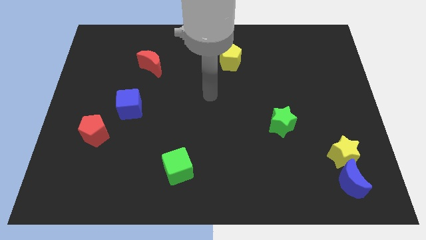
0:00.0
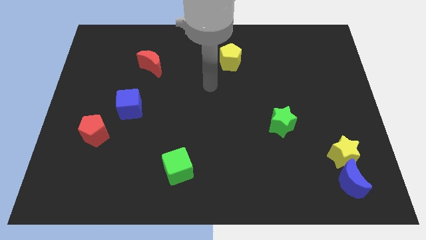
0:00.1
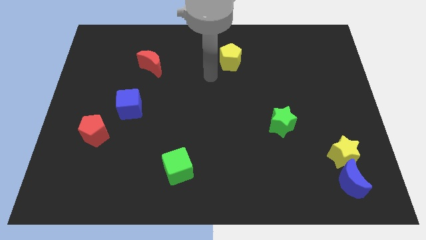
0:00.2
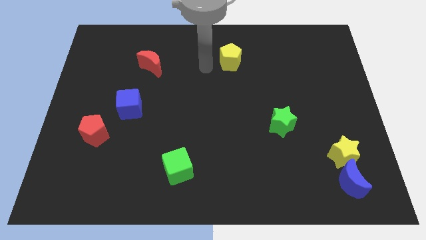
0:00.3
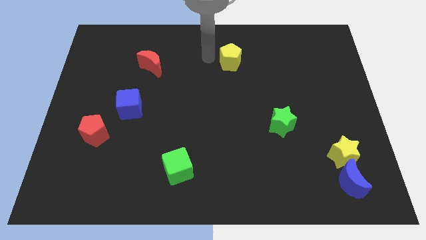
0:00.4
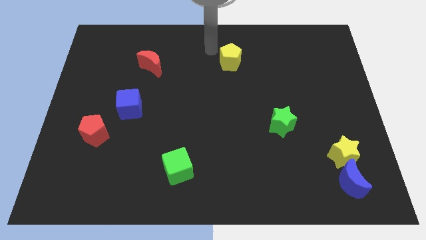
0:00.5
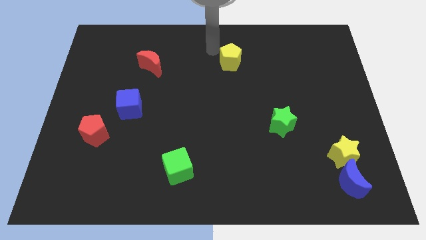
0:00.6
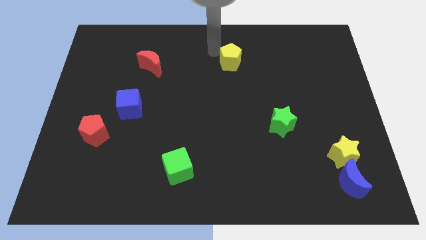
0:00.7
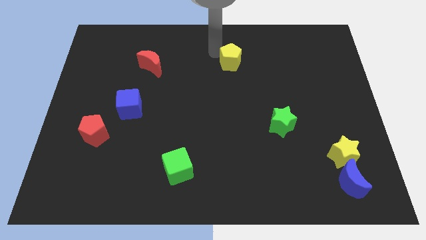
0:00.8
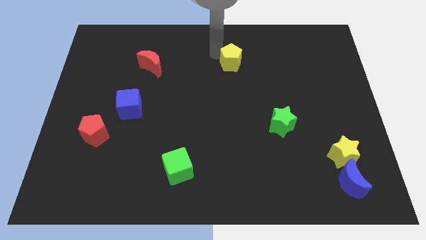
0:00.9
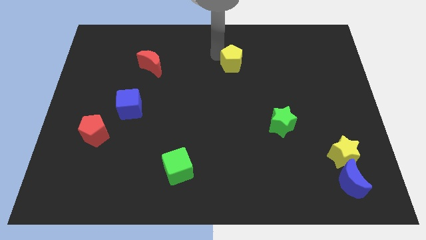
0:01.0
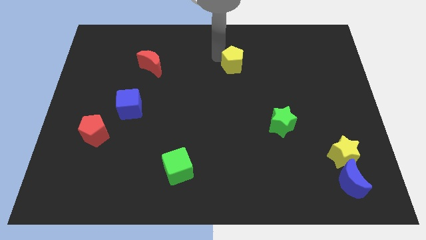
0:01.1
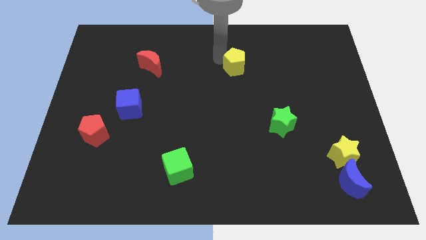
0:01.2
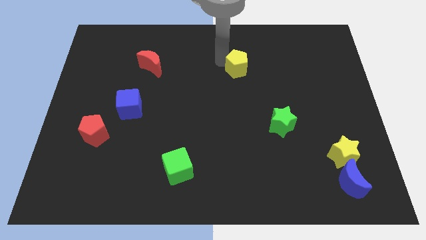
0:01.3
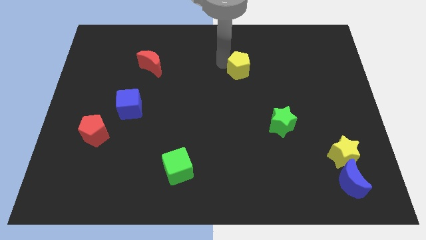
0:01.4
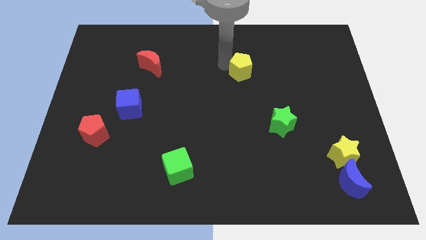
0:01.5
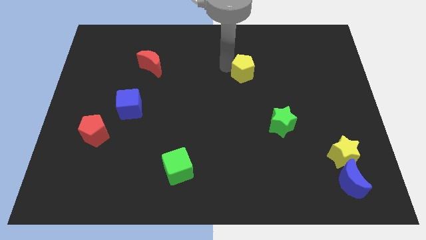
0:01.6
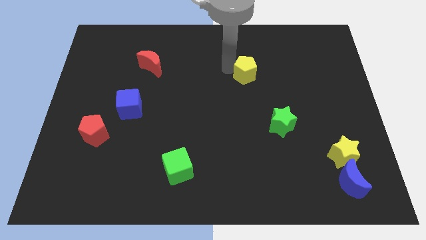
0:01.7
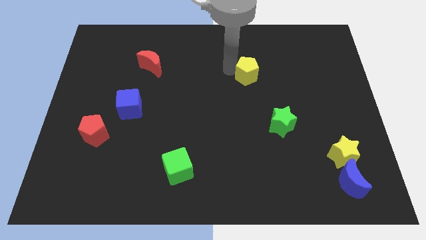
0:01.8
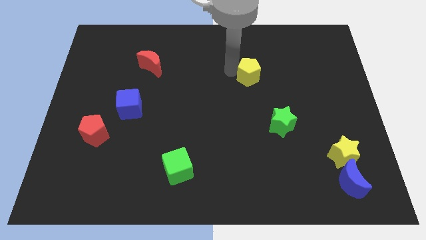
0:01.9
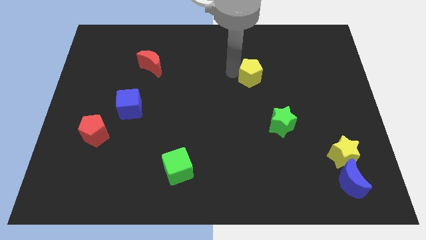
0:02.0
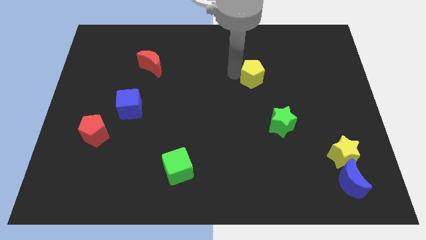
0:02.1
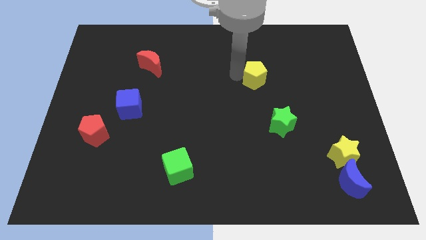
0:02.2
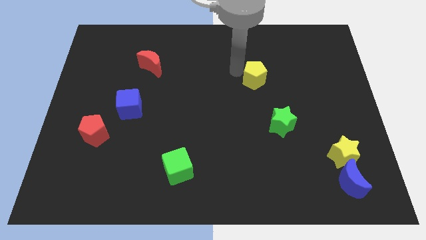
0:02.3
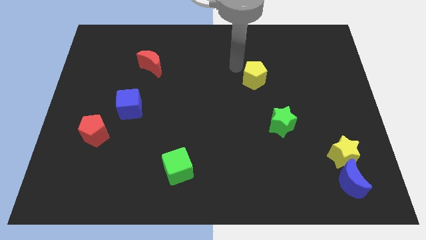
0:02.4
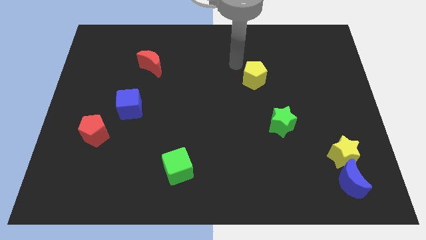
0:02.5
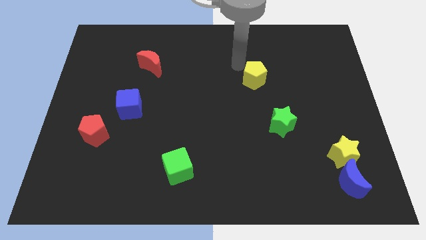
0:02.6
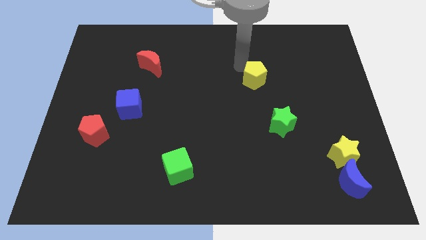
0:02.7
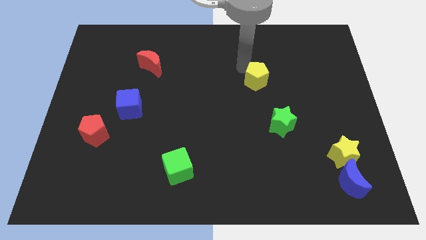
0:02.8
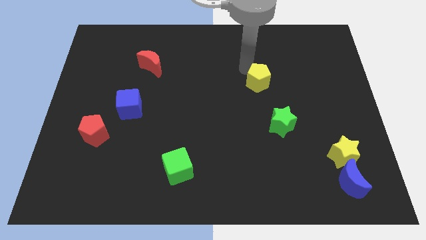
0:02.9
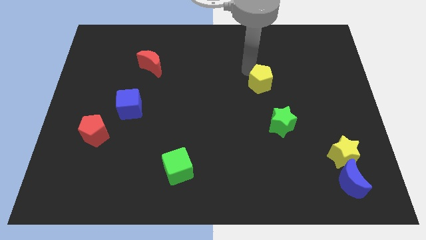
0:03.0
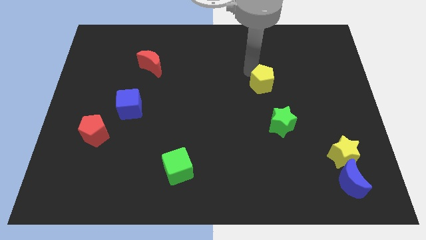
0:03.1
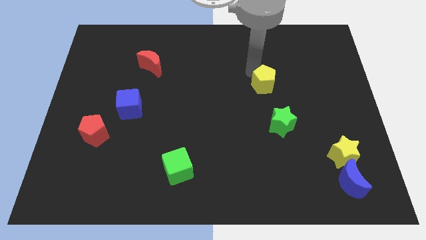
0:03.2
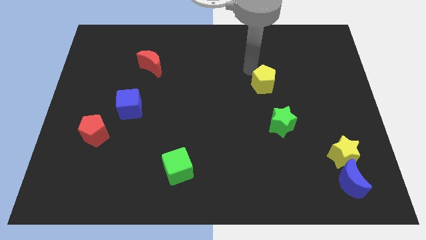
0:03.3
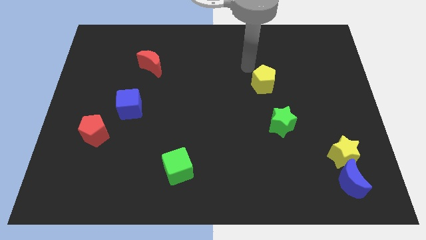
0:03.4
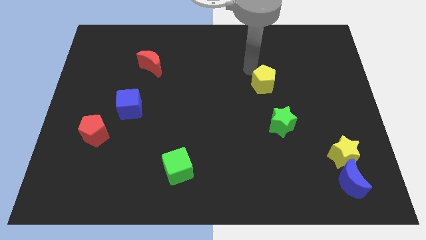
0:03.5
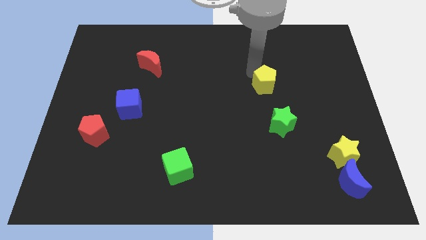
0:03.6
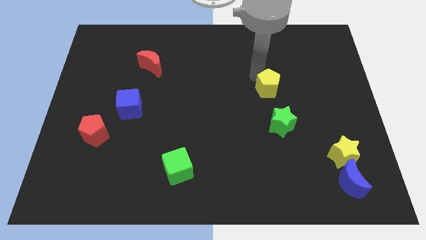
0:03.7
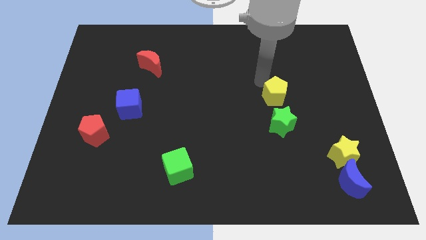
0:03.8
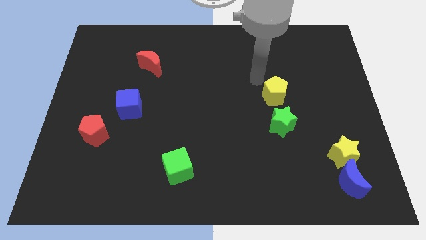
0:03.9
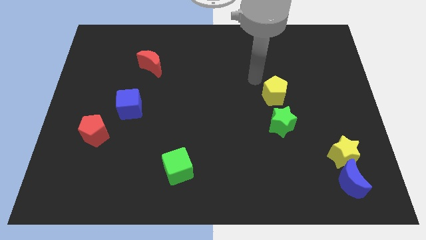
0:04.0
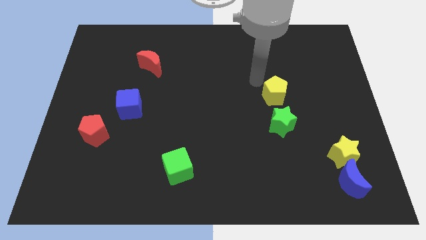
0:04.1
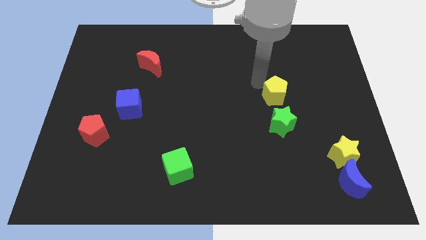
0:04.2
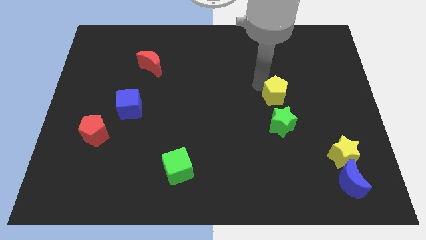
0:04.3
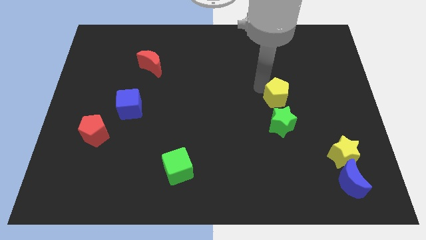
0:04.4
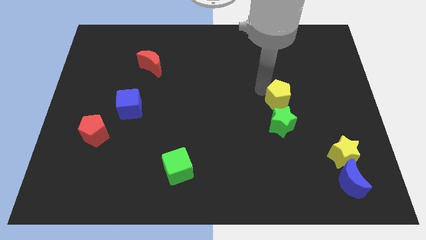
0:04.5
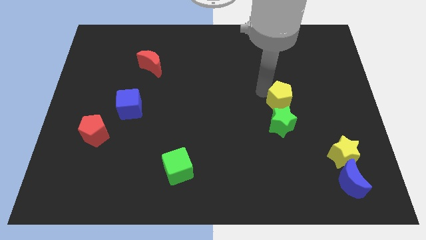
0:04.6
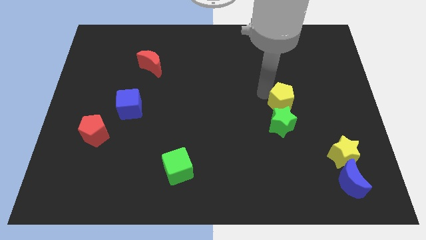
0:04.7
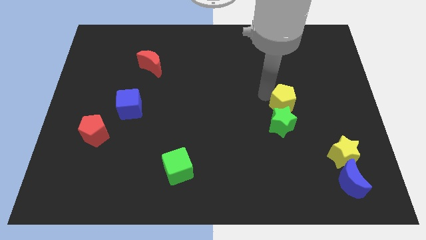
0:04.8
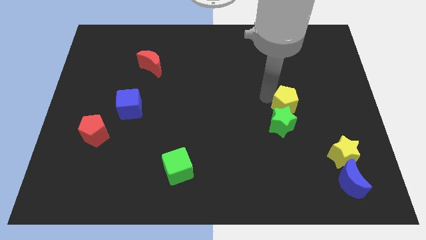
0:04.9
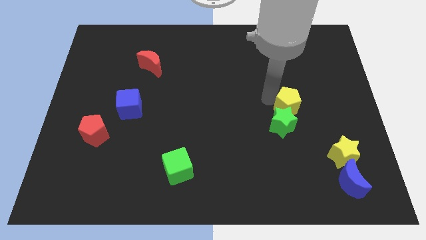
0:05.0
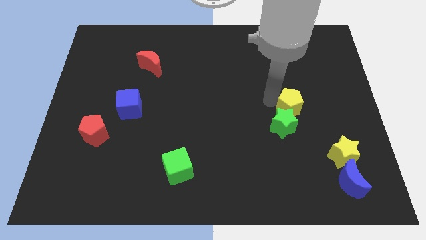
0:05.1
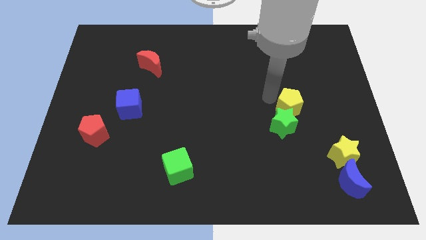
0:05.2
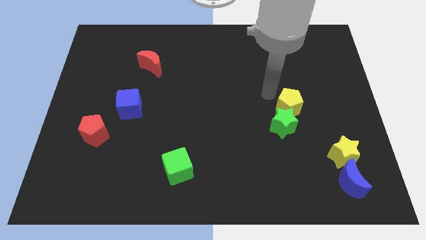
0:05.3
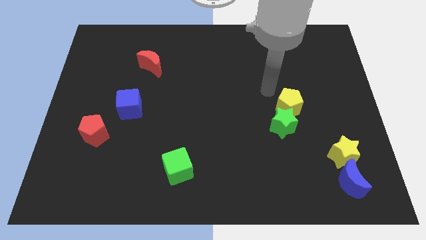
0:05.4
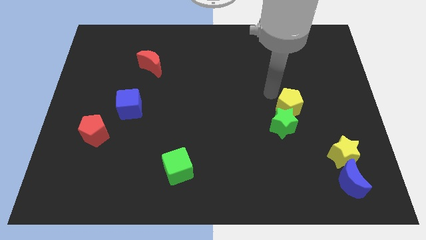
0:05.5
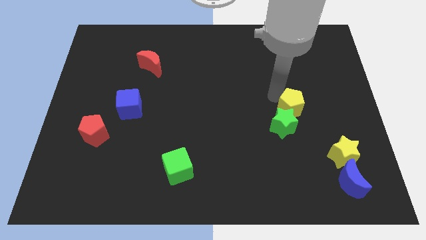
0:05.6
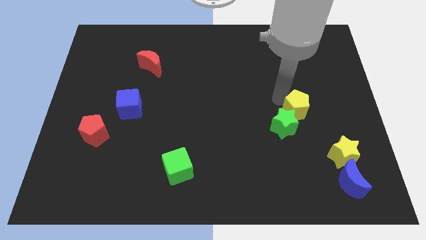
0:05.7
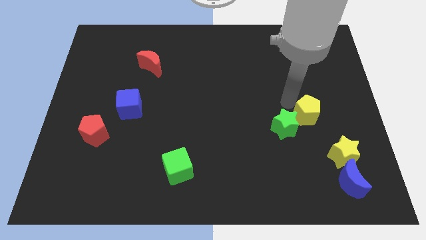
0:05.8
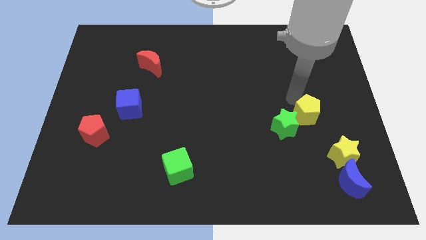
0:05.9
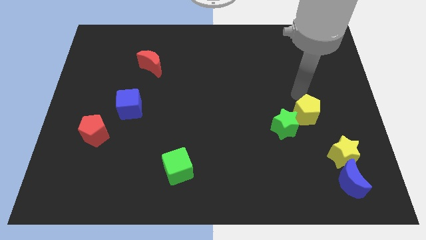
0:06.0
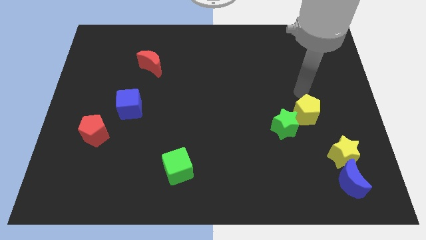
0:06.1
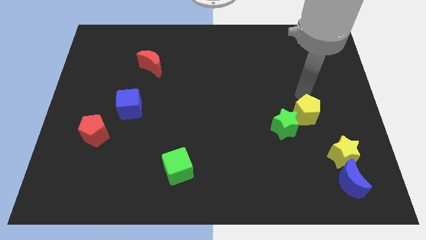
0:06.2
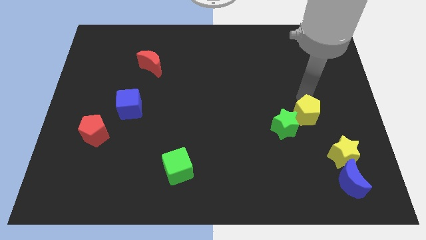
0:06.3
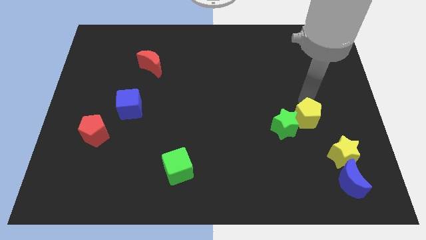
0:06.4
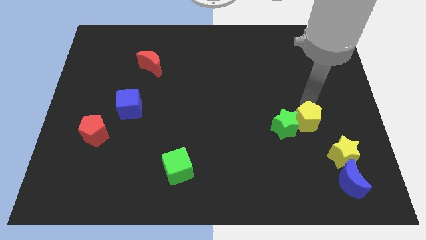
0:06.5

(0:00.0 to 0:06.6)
put the yellow pentagon diagonally down and to the right of the green star

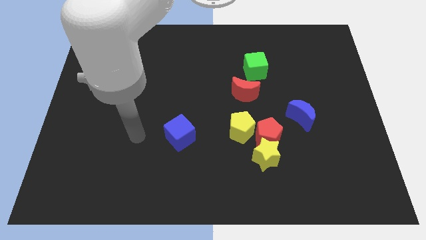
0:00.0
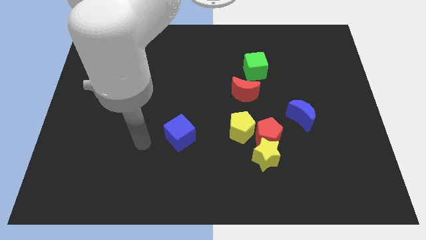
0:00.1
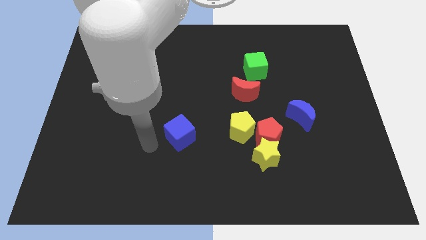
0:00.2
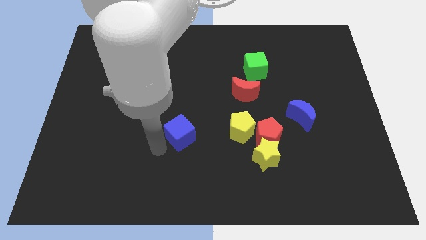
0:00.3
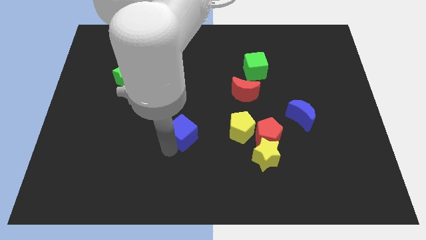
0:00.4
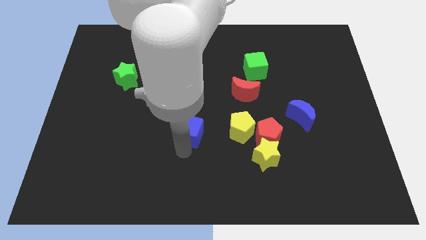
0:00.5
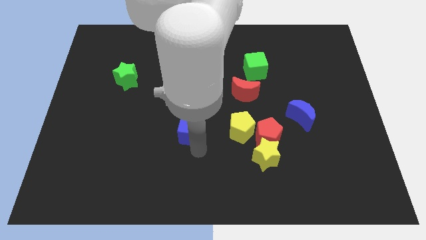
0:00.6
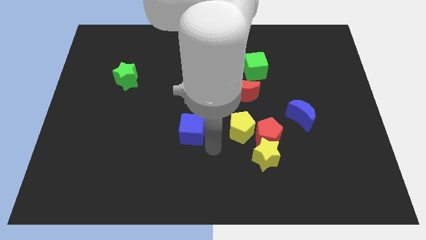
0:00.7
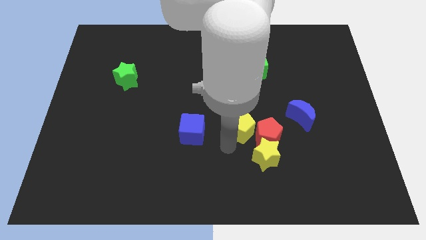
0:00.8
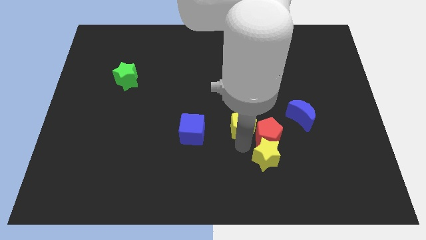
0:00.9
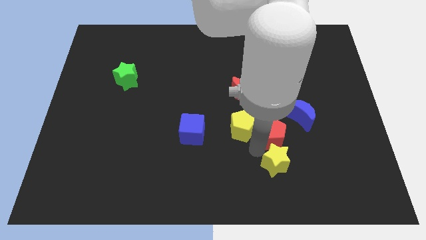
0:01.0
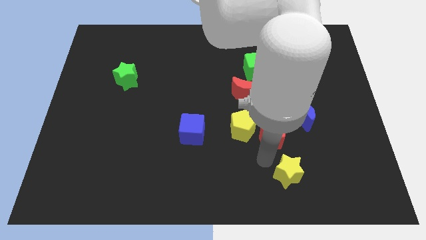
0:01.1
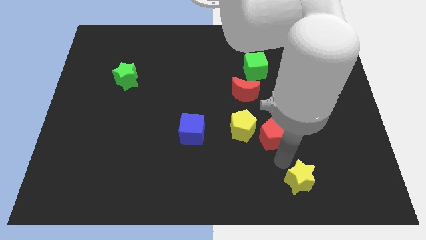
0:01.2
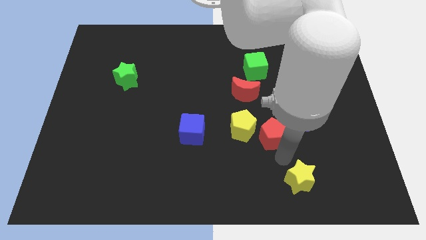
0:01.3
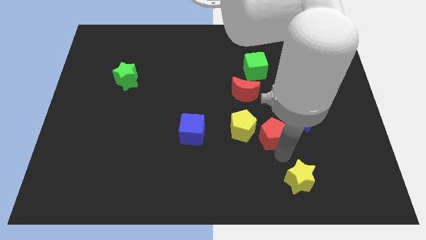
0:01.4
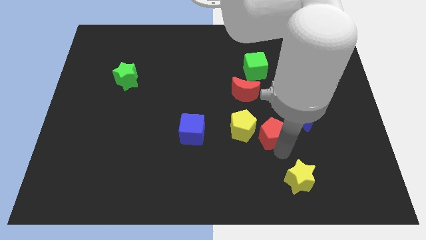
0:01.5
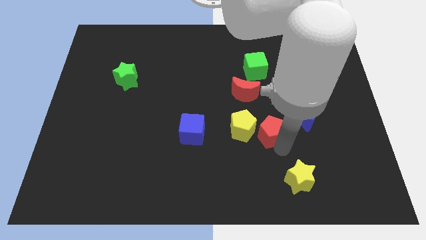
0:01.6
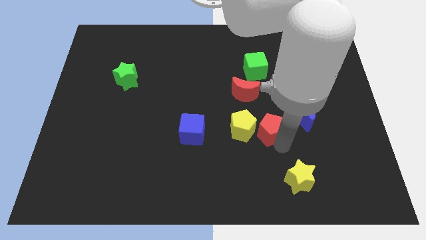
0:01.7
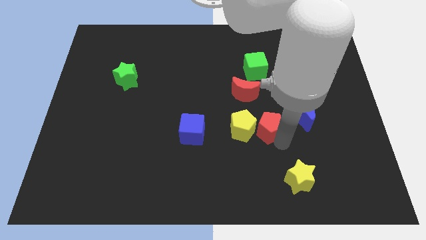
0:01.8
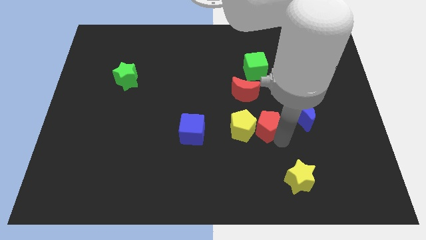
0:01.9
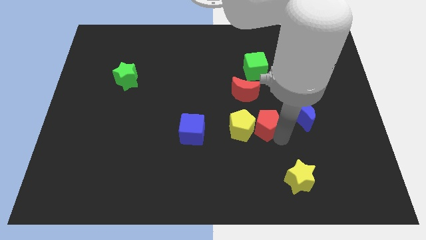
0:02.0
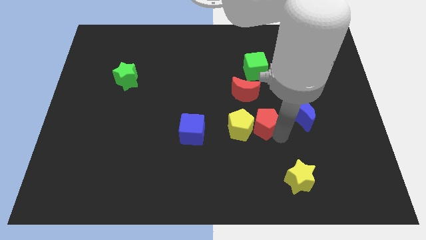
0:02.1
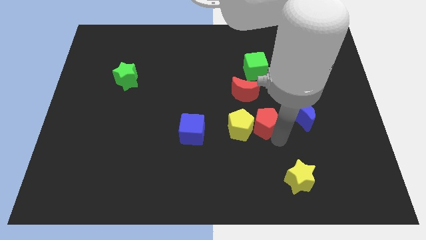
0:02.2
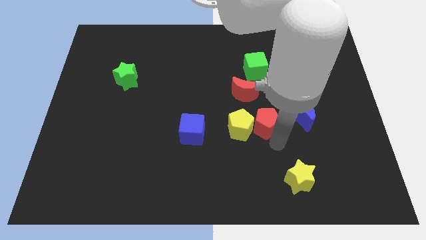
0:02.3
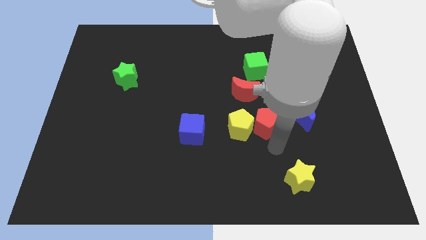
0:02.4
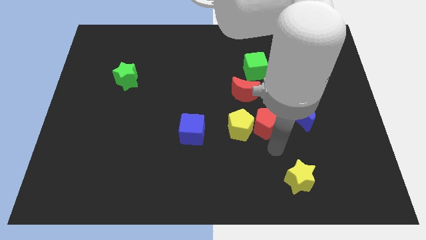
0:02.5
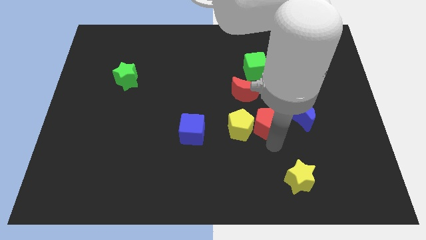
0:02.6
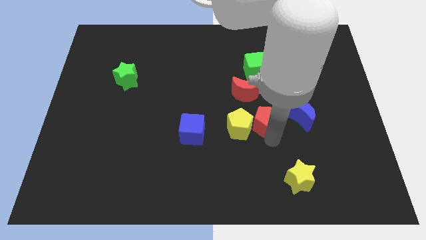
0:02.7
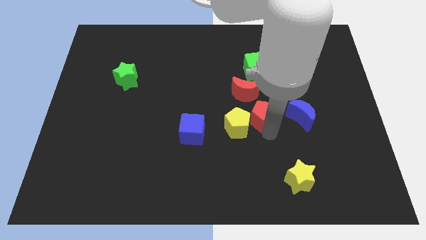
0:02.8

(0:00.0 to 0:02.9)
push the red pentagon to the bottom side of the green cube
